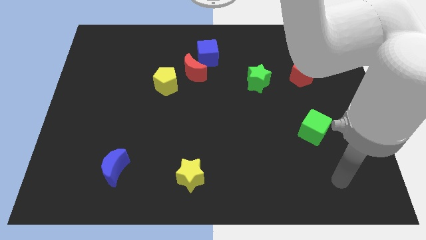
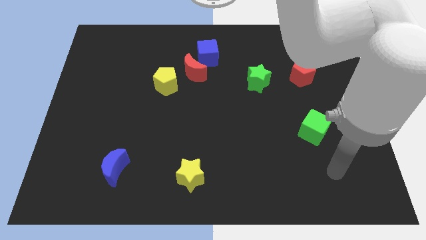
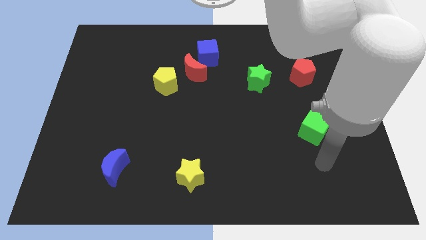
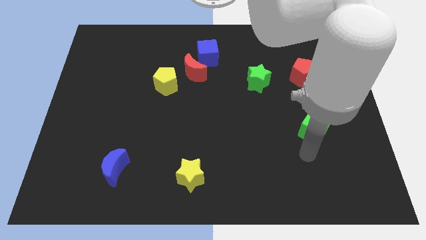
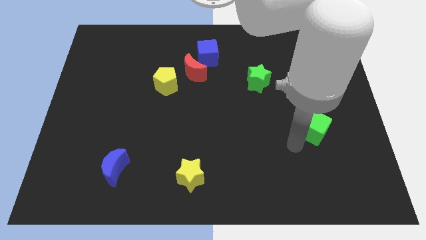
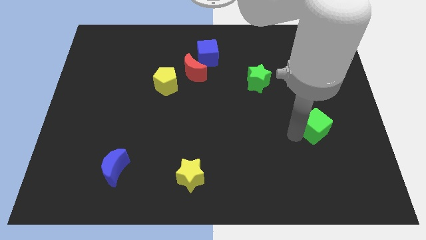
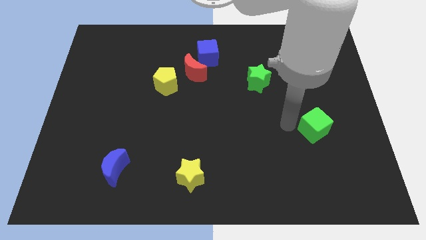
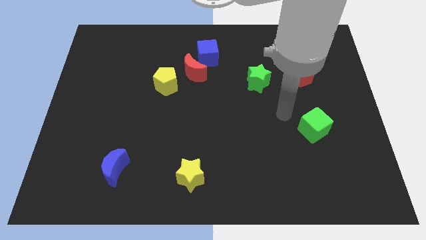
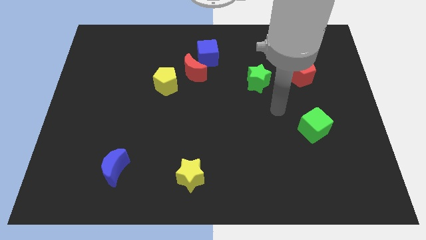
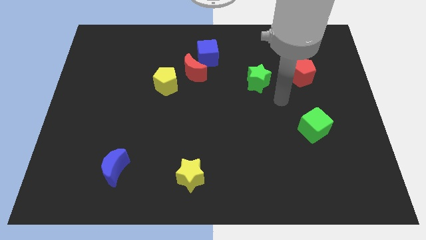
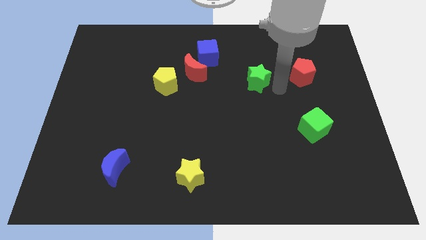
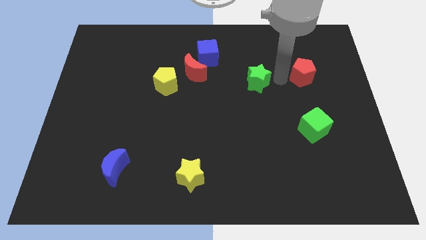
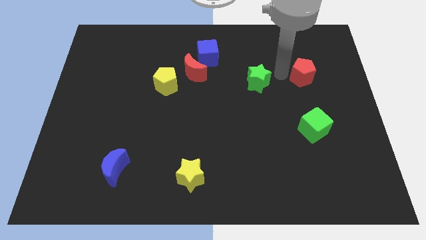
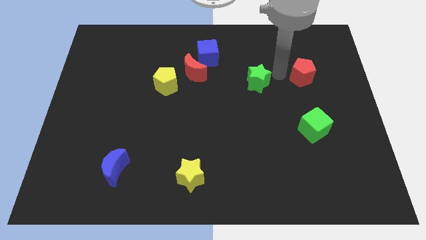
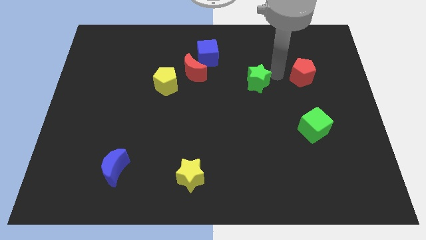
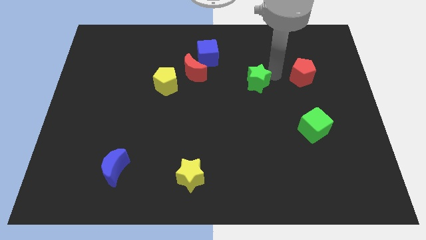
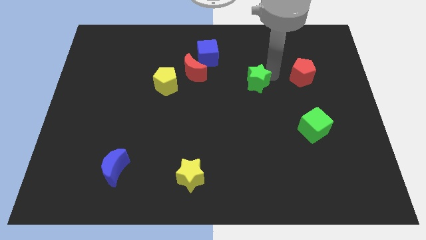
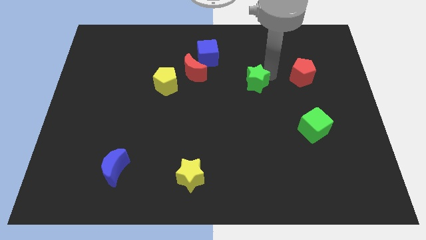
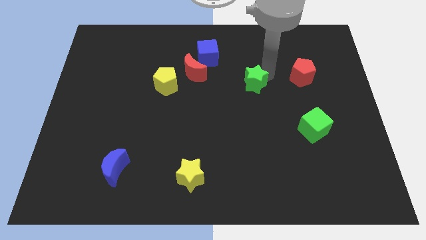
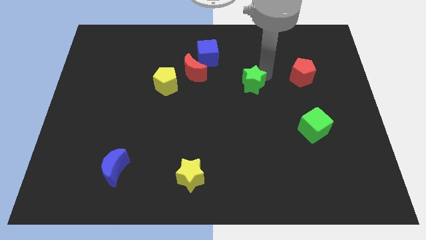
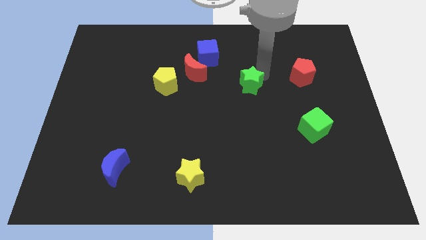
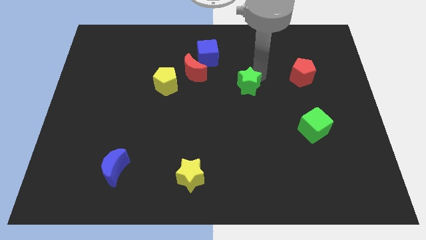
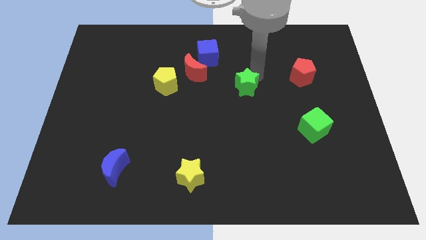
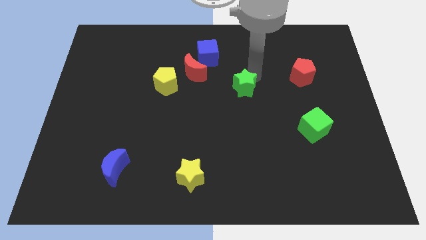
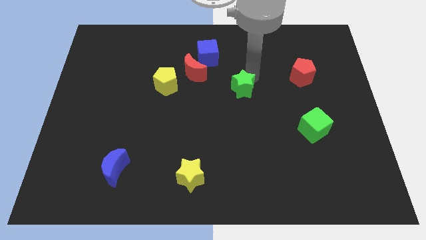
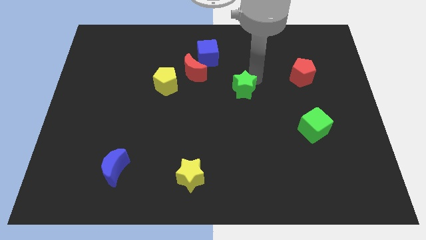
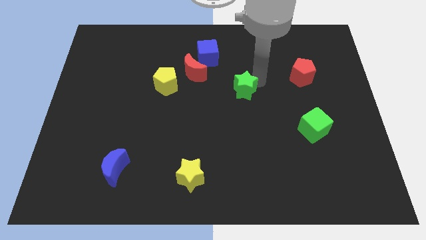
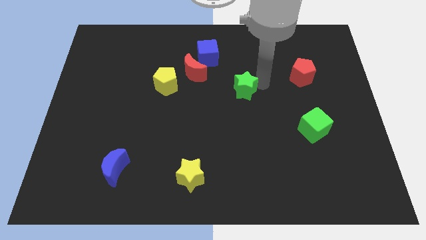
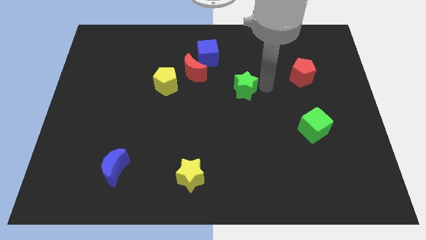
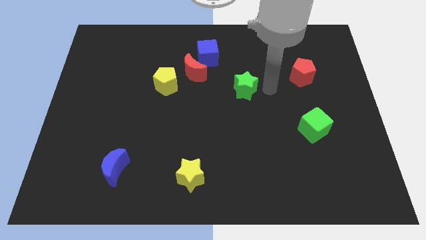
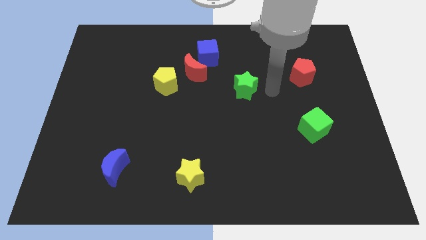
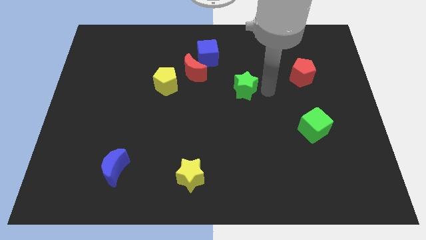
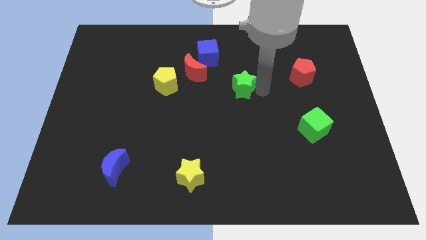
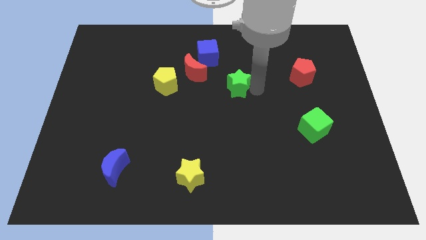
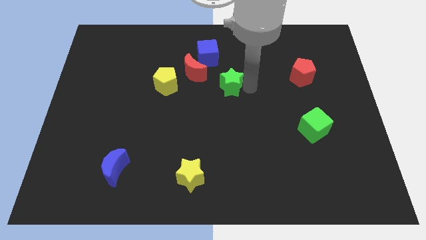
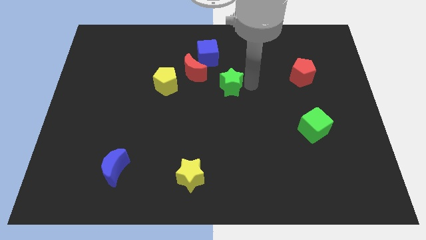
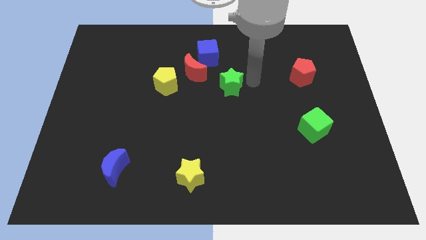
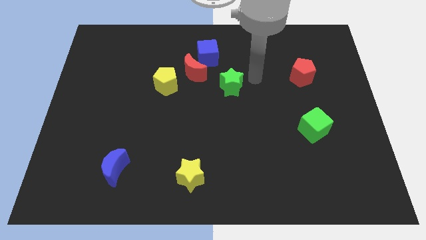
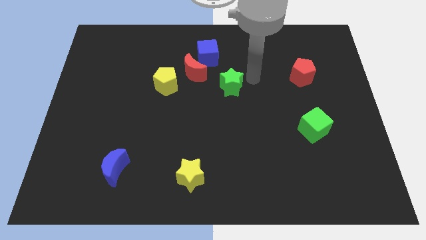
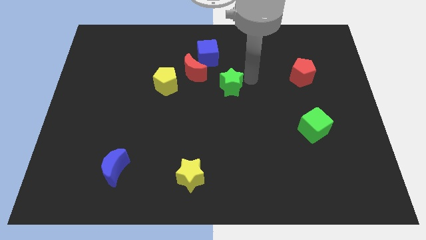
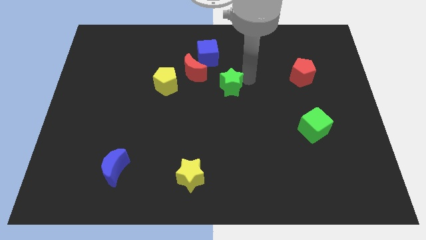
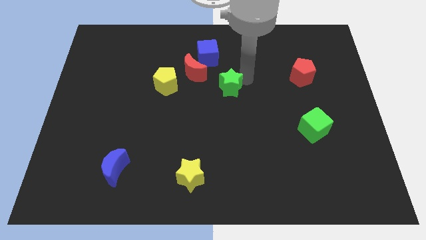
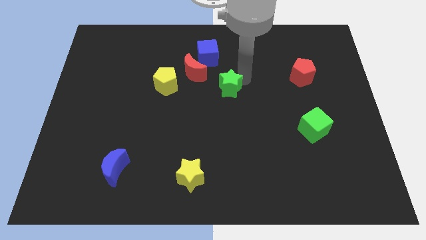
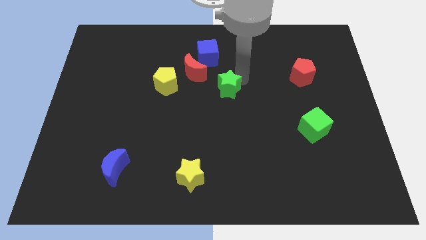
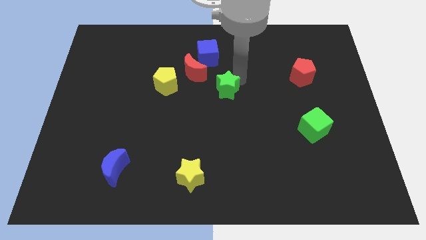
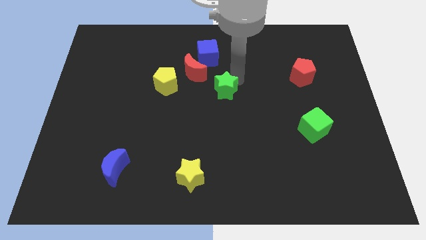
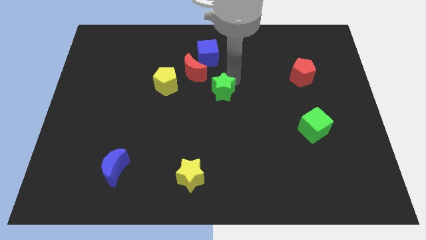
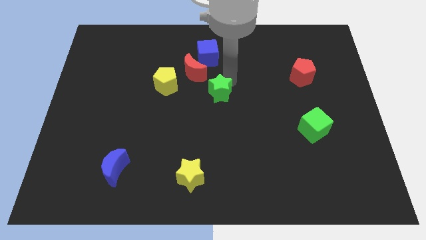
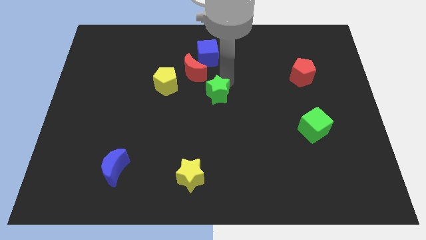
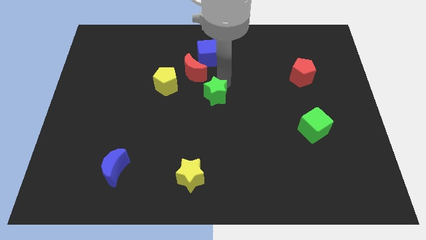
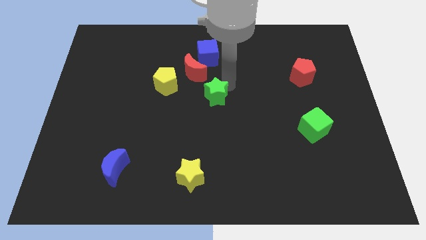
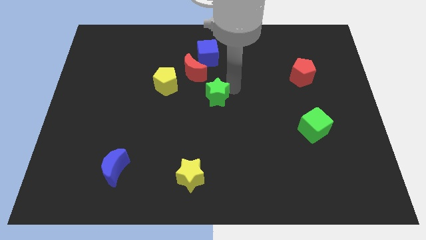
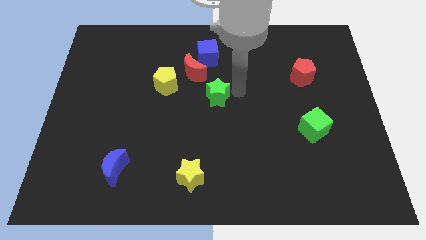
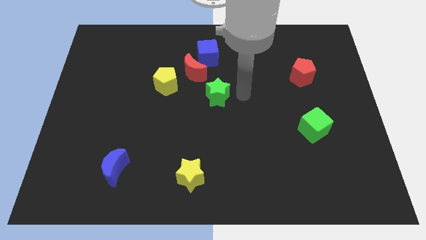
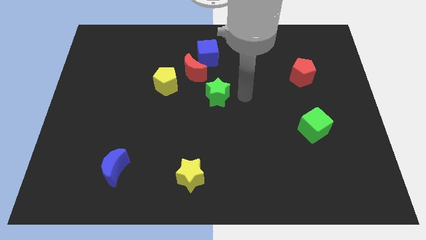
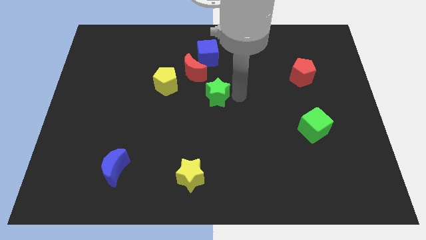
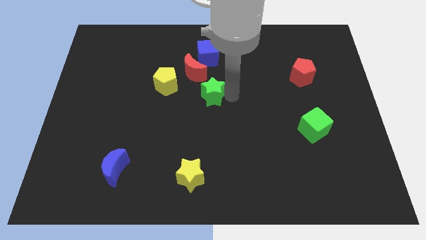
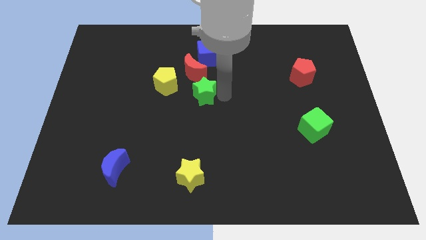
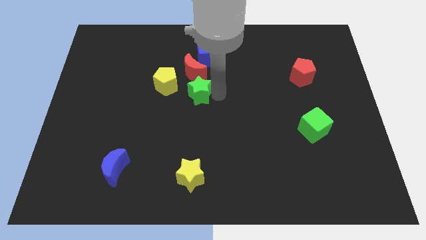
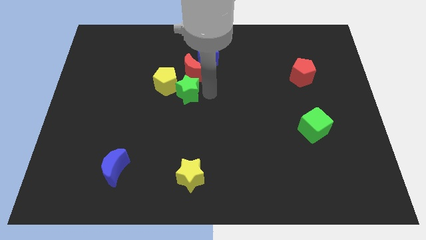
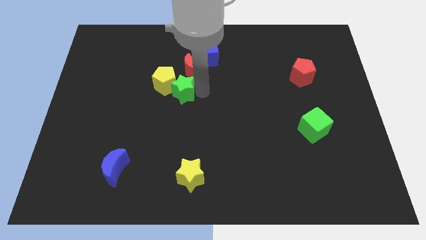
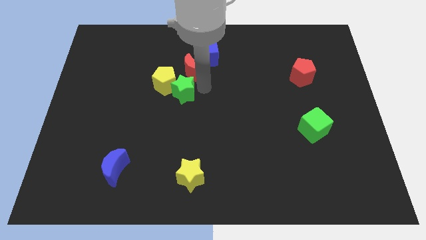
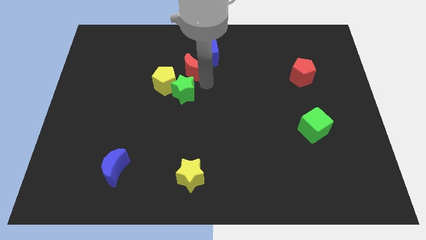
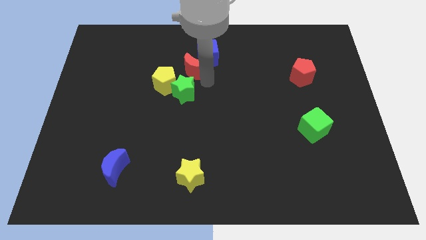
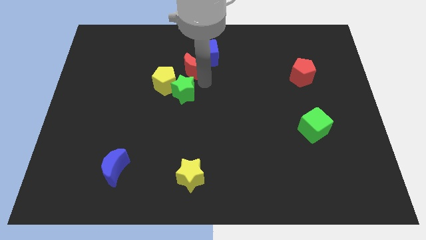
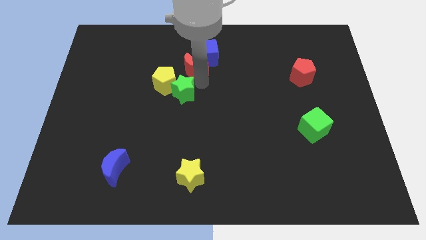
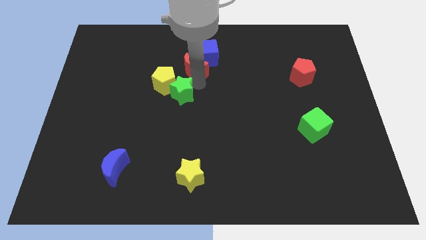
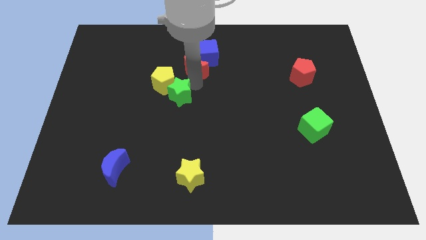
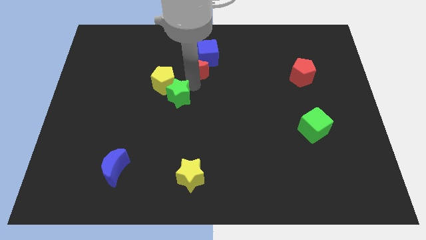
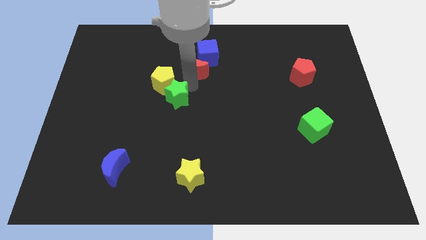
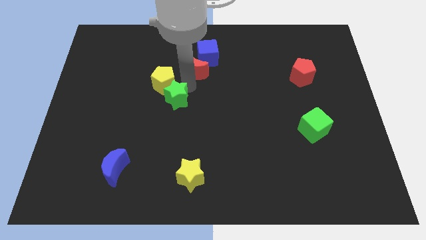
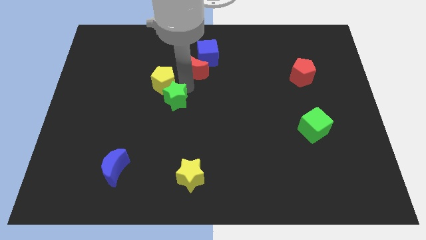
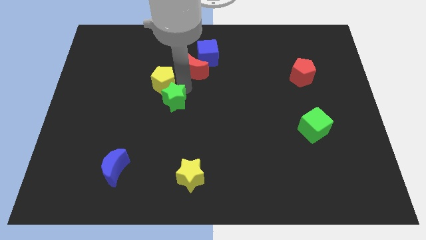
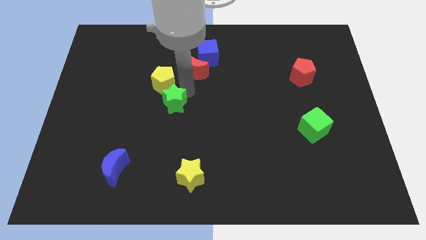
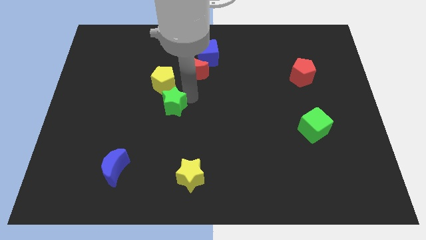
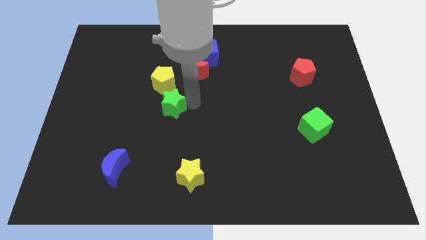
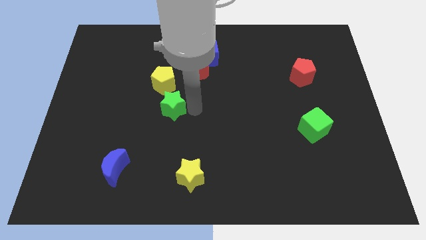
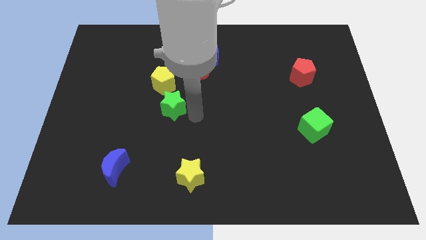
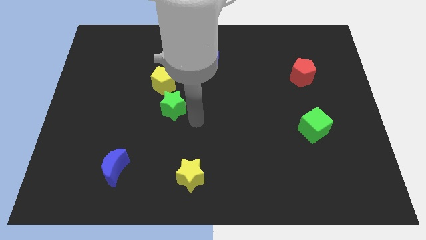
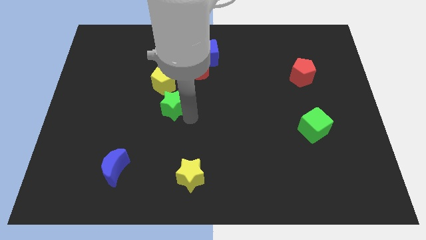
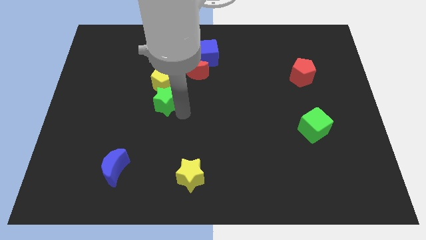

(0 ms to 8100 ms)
slide the green star left
